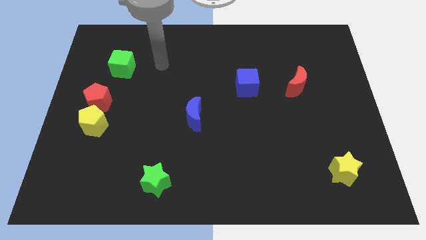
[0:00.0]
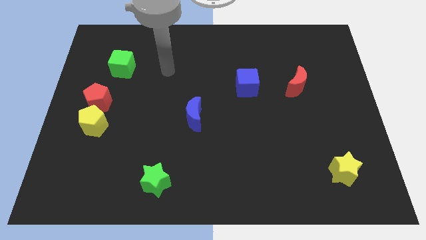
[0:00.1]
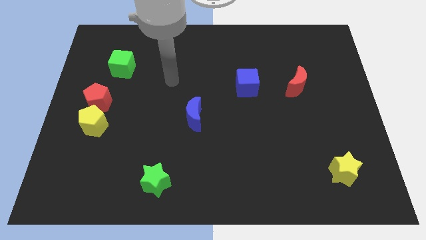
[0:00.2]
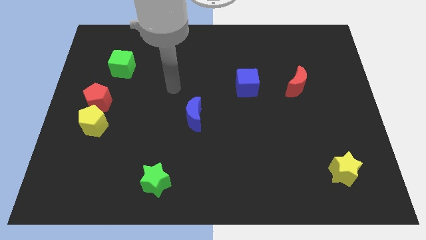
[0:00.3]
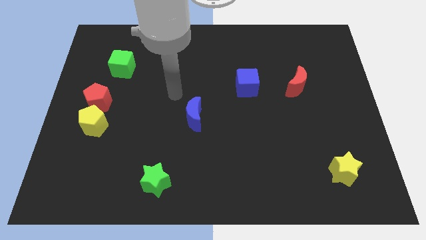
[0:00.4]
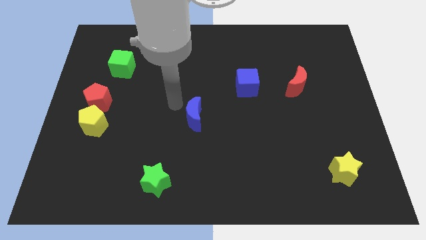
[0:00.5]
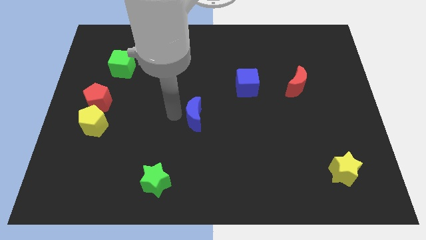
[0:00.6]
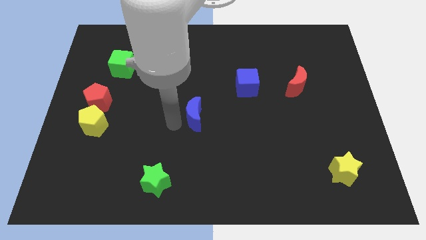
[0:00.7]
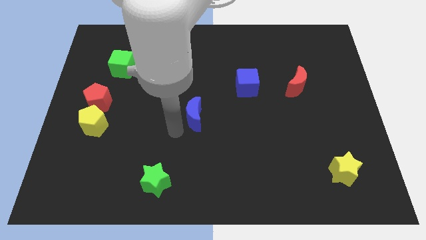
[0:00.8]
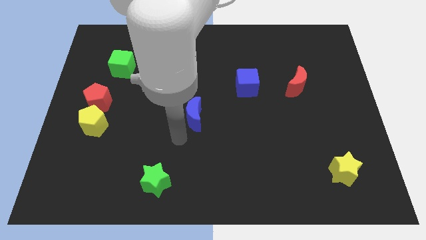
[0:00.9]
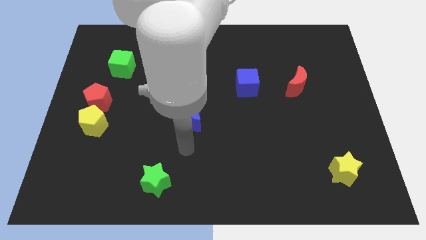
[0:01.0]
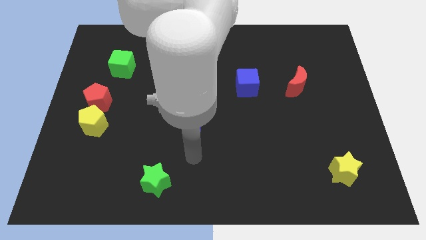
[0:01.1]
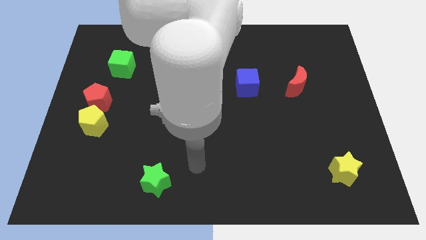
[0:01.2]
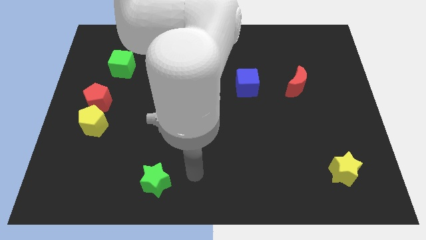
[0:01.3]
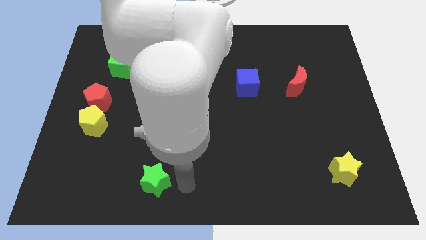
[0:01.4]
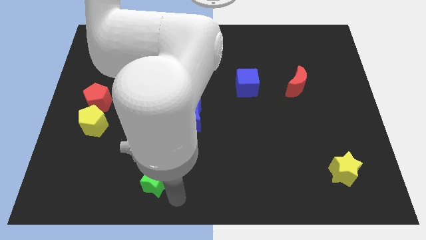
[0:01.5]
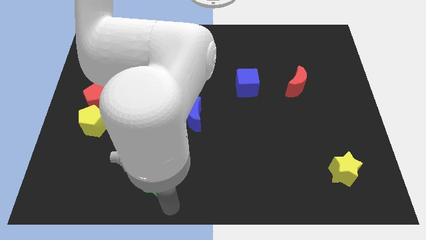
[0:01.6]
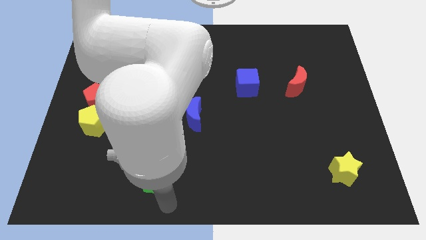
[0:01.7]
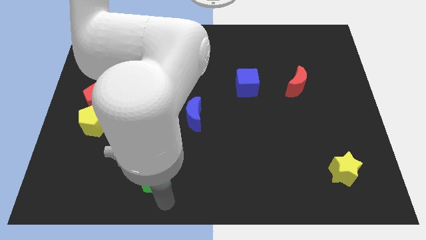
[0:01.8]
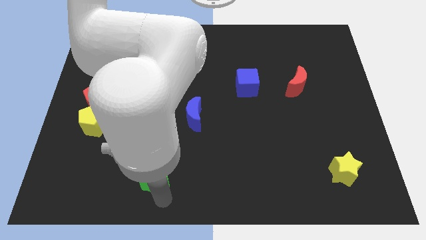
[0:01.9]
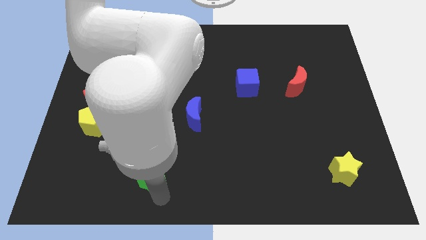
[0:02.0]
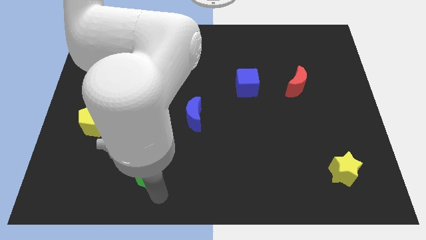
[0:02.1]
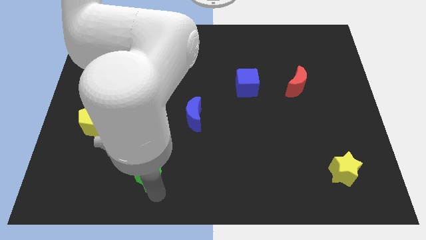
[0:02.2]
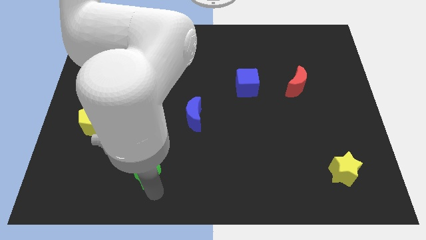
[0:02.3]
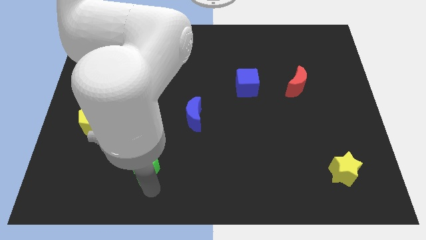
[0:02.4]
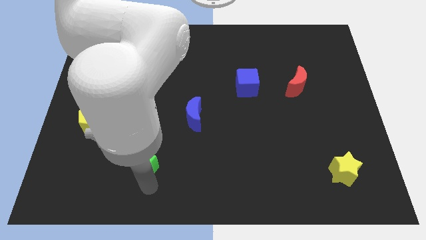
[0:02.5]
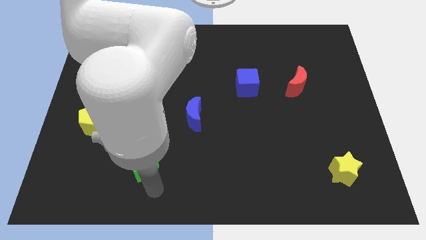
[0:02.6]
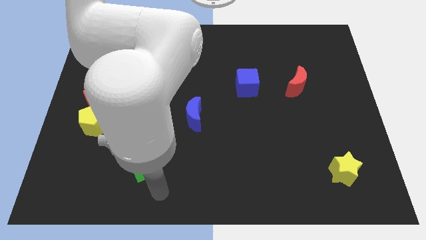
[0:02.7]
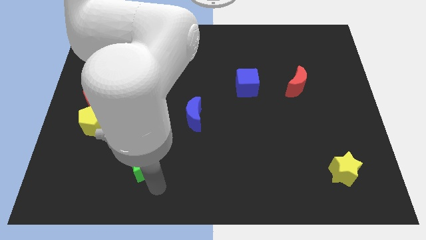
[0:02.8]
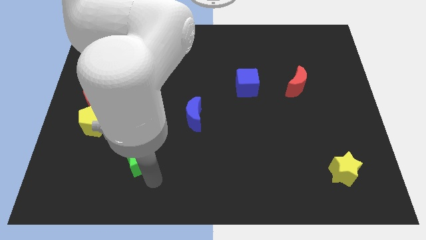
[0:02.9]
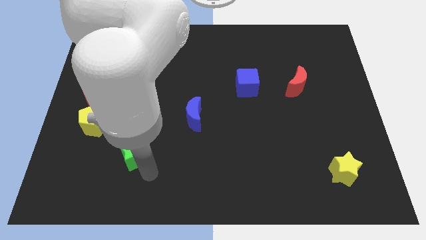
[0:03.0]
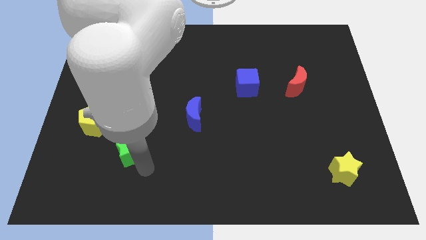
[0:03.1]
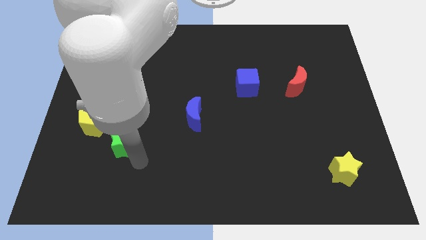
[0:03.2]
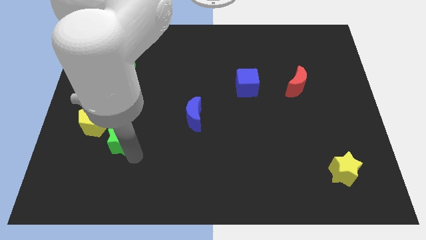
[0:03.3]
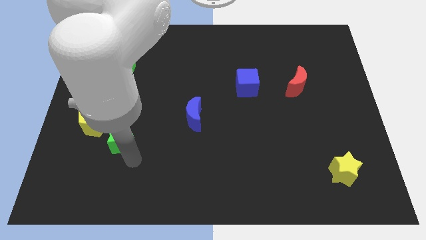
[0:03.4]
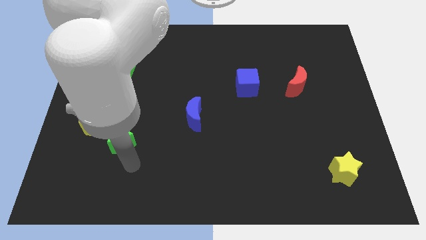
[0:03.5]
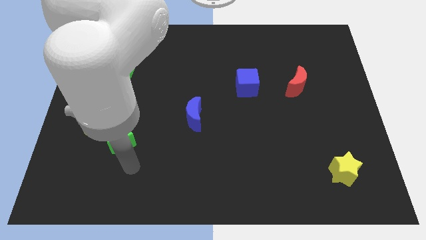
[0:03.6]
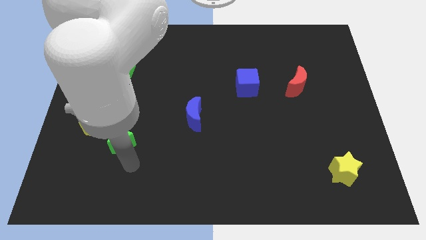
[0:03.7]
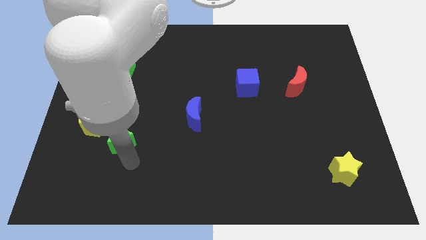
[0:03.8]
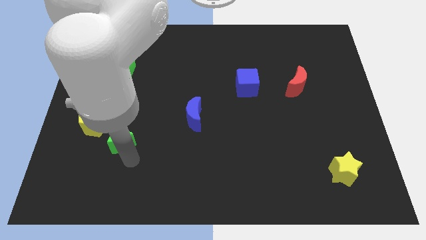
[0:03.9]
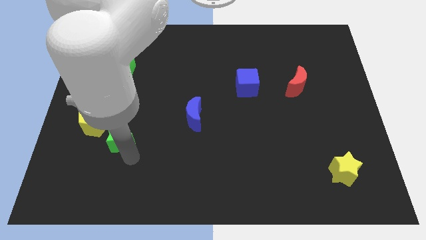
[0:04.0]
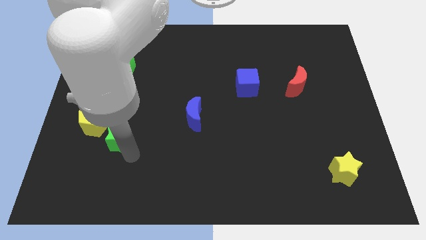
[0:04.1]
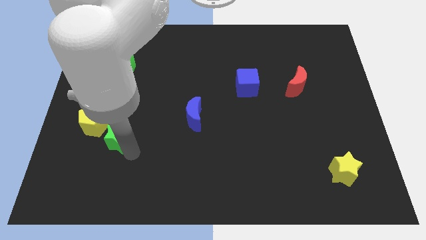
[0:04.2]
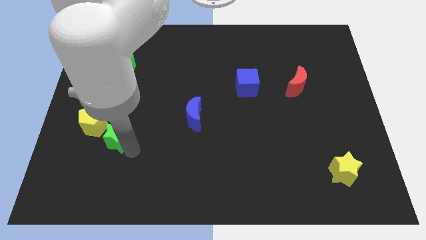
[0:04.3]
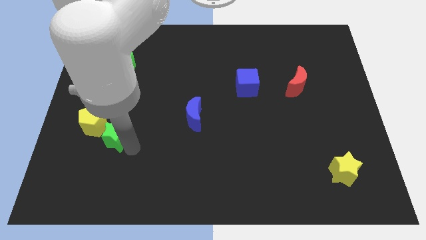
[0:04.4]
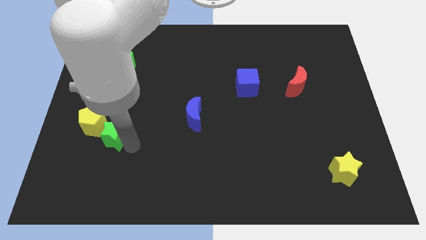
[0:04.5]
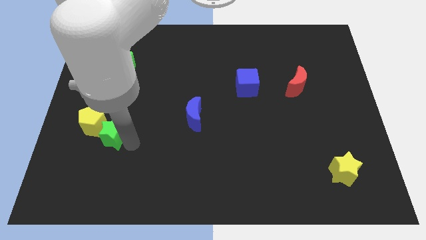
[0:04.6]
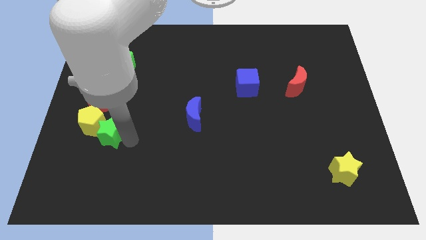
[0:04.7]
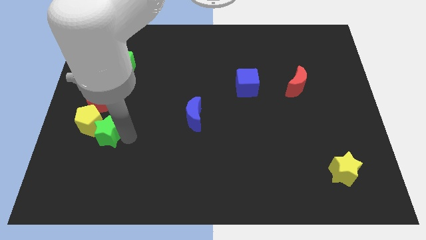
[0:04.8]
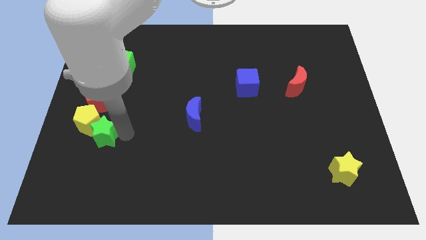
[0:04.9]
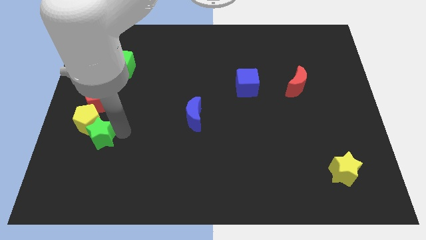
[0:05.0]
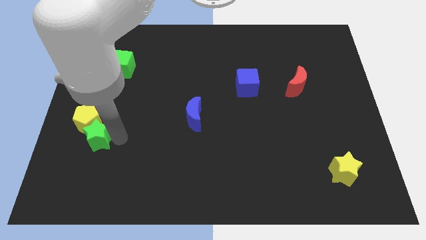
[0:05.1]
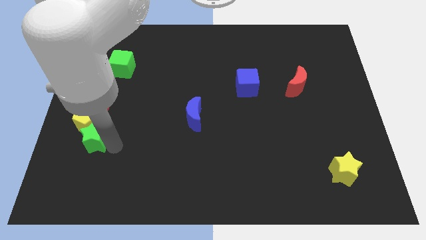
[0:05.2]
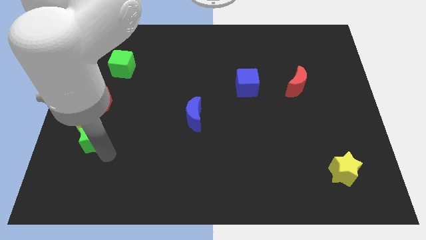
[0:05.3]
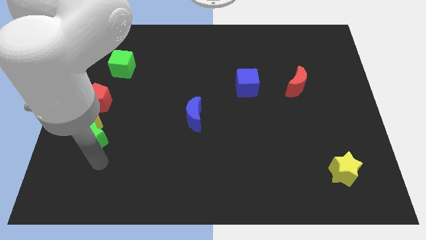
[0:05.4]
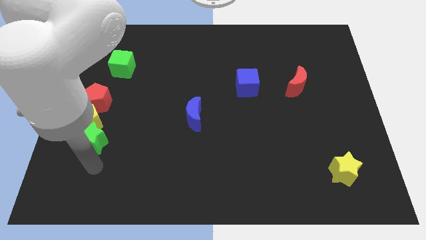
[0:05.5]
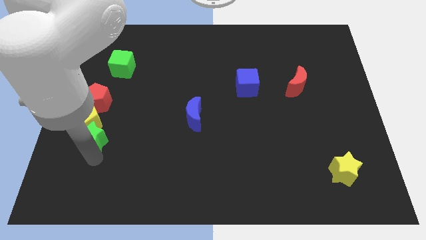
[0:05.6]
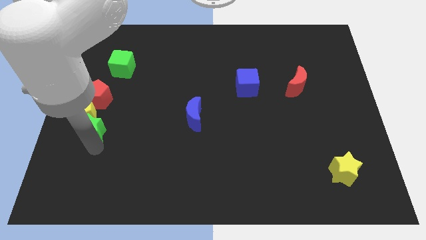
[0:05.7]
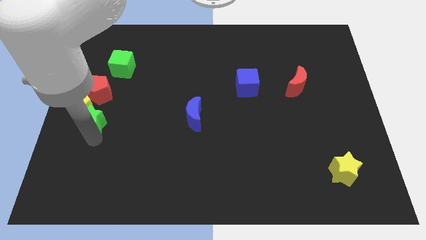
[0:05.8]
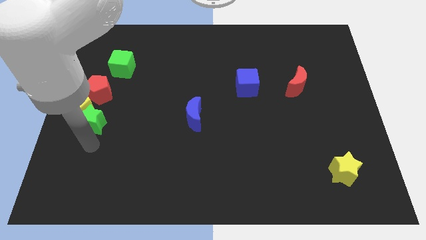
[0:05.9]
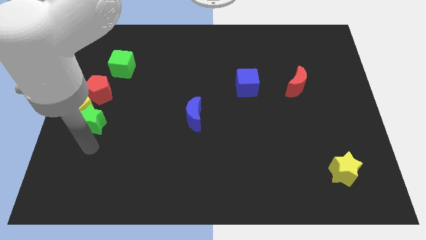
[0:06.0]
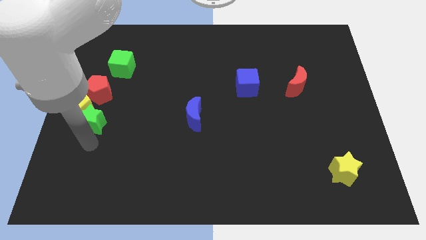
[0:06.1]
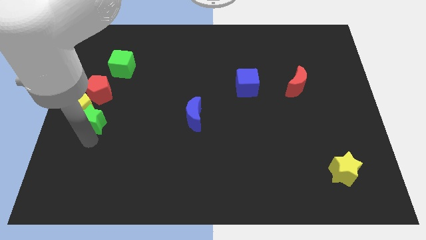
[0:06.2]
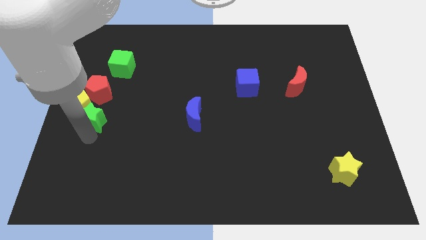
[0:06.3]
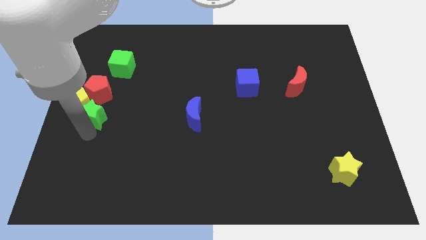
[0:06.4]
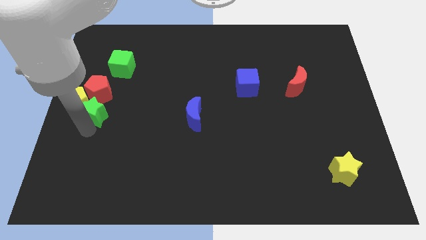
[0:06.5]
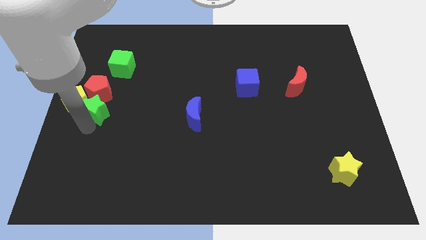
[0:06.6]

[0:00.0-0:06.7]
slide the green star next to the red pentagon

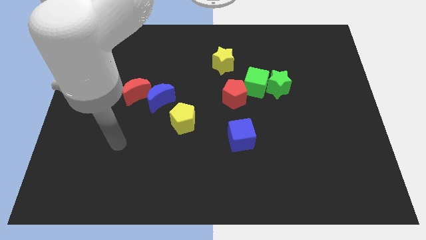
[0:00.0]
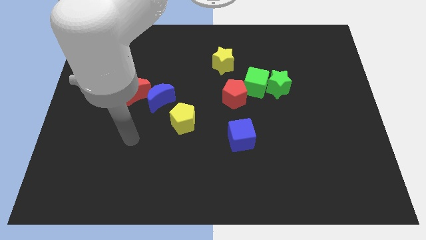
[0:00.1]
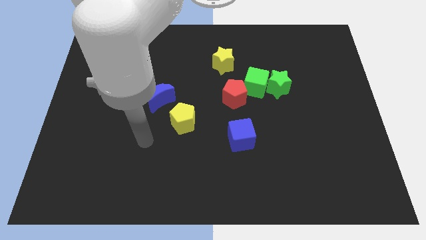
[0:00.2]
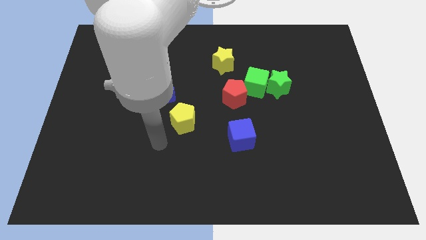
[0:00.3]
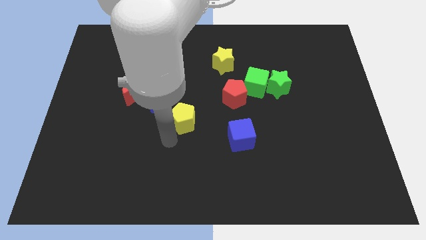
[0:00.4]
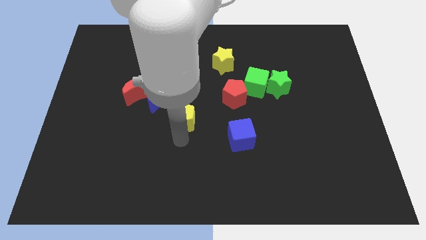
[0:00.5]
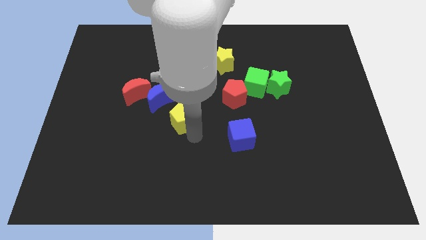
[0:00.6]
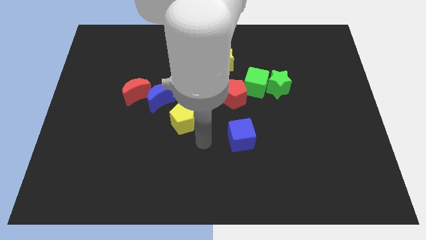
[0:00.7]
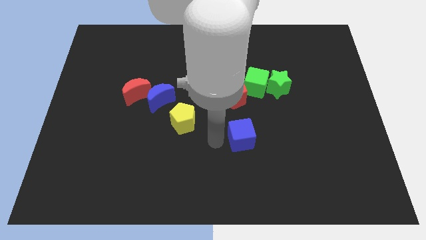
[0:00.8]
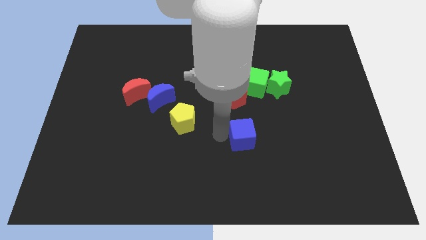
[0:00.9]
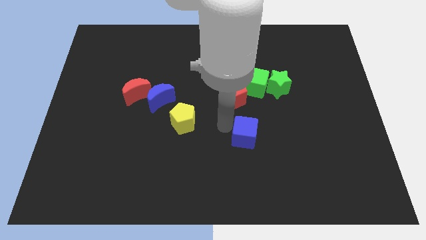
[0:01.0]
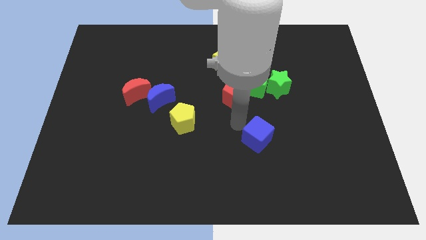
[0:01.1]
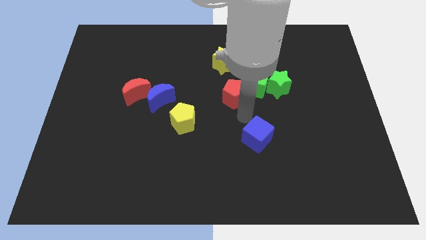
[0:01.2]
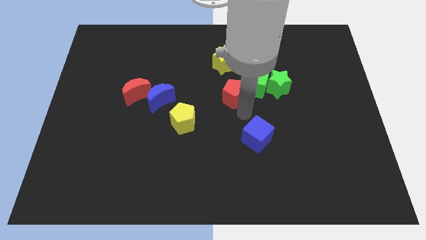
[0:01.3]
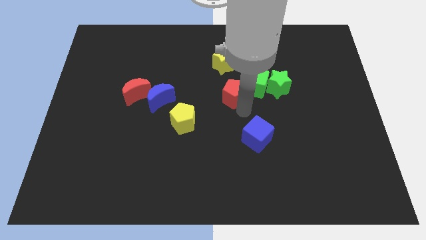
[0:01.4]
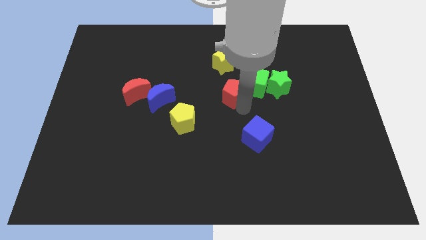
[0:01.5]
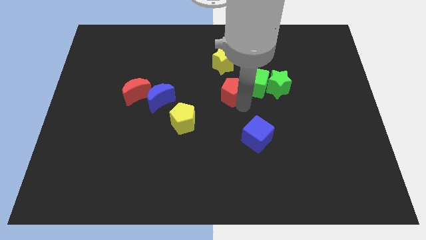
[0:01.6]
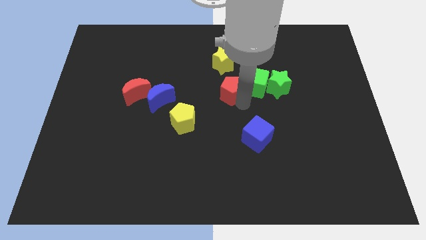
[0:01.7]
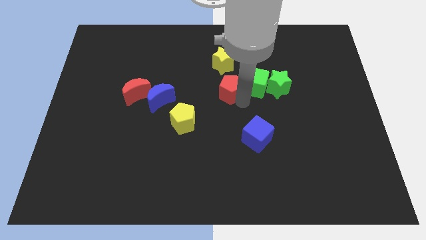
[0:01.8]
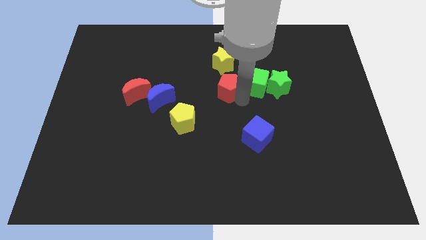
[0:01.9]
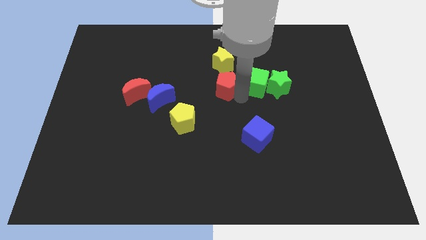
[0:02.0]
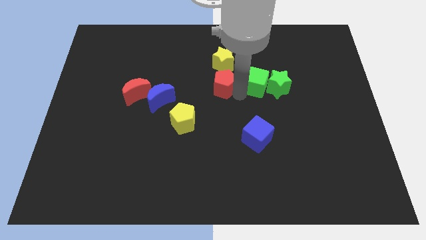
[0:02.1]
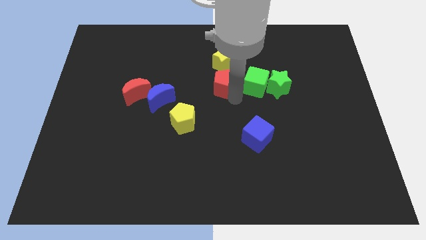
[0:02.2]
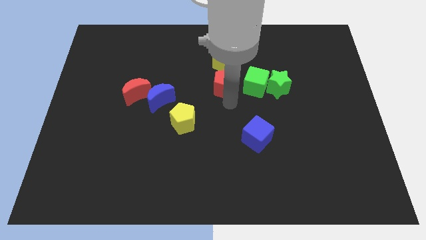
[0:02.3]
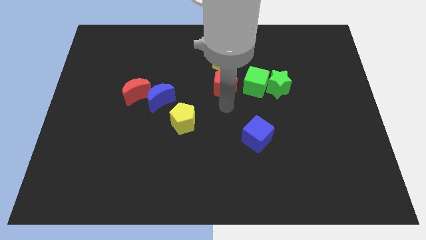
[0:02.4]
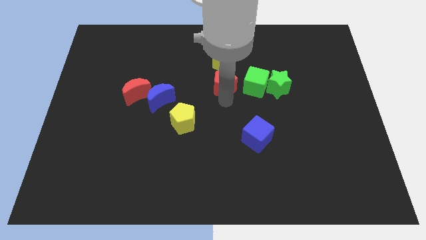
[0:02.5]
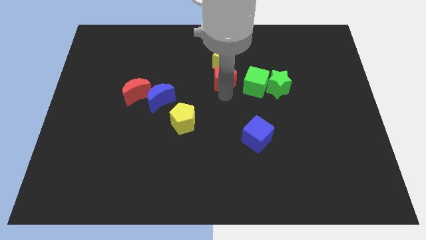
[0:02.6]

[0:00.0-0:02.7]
move the red pentagon towards the yellow star
